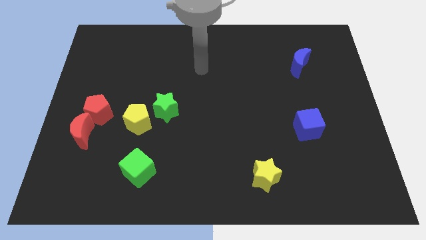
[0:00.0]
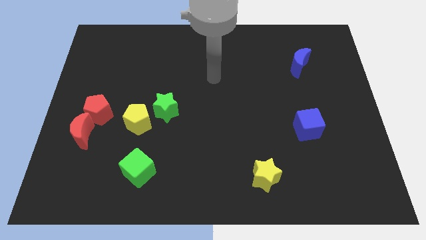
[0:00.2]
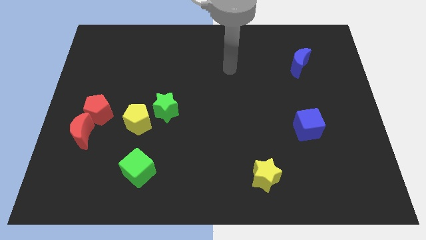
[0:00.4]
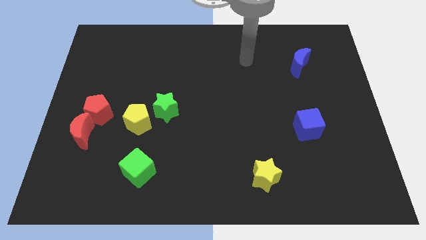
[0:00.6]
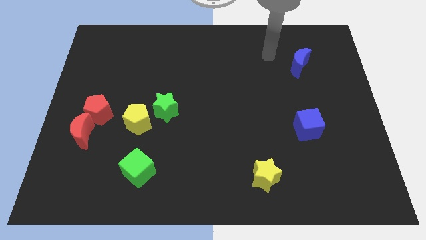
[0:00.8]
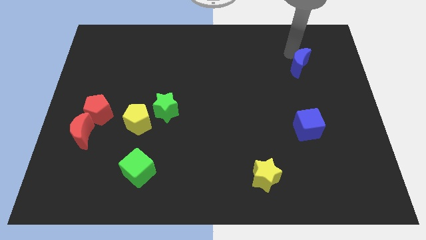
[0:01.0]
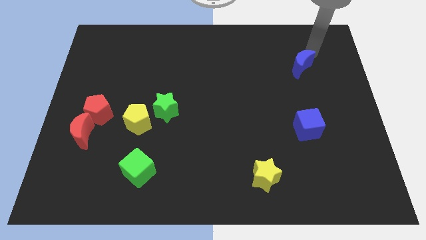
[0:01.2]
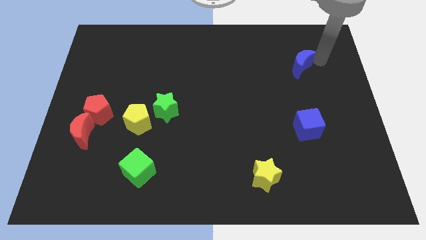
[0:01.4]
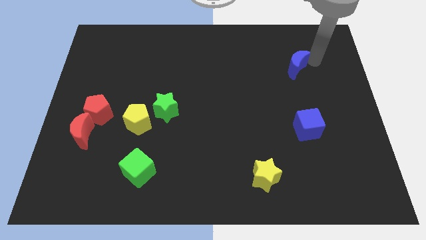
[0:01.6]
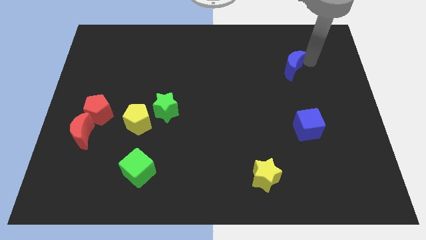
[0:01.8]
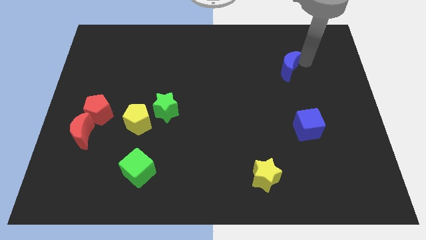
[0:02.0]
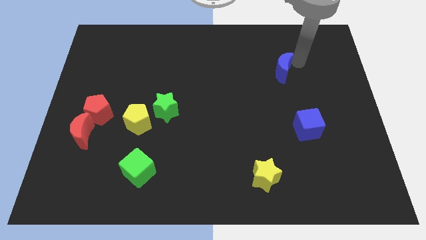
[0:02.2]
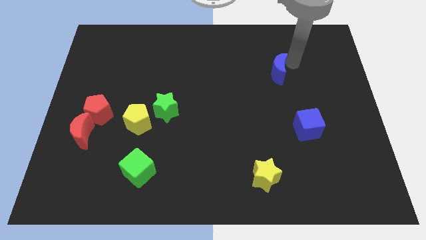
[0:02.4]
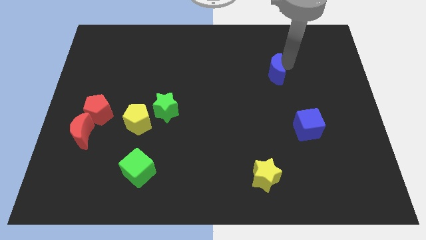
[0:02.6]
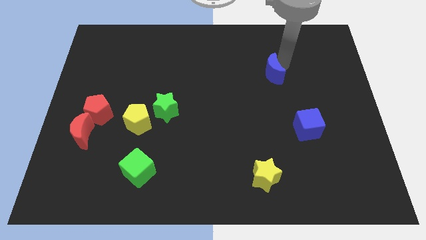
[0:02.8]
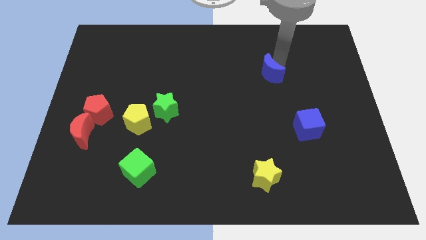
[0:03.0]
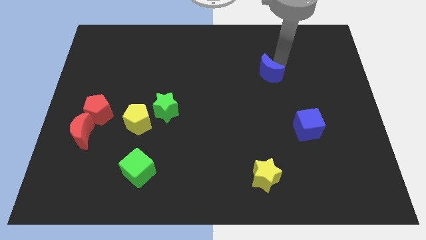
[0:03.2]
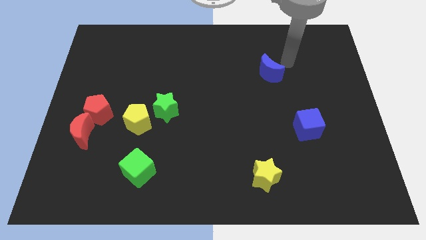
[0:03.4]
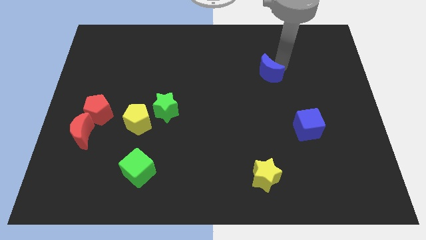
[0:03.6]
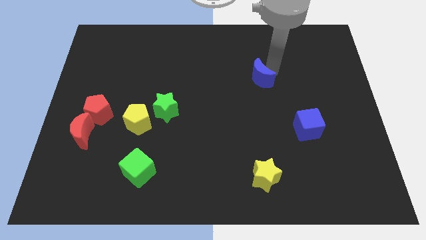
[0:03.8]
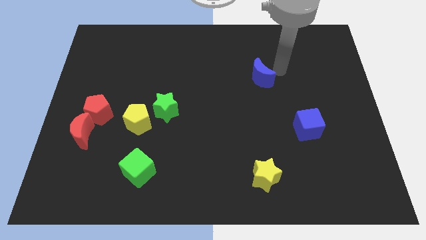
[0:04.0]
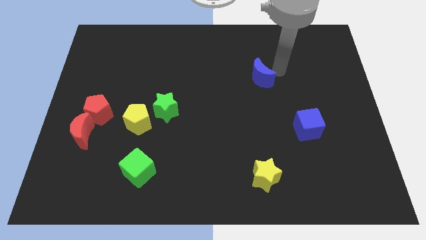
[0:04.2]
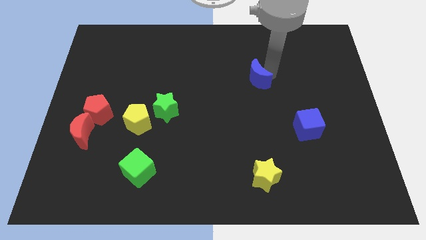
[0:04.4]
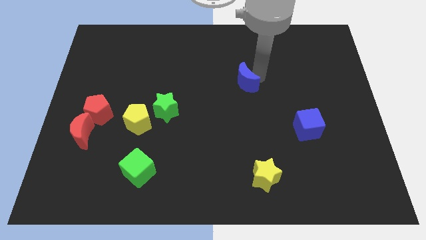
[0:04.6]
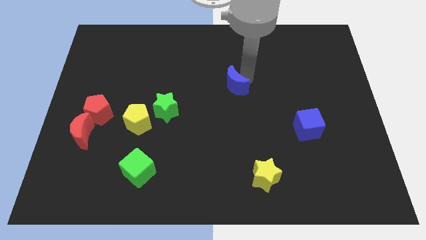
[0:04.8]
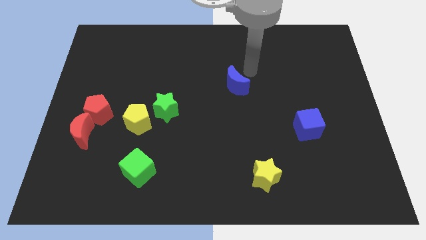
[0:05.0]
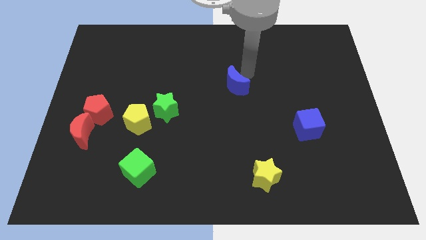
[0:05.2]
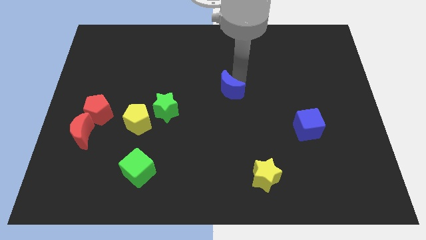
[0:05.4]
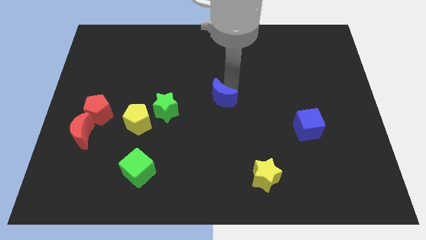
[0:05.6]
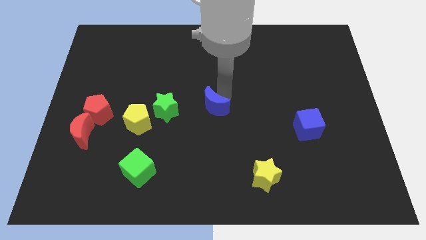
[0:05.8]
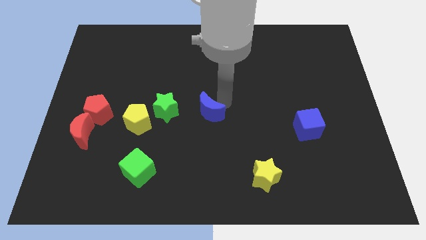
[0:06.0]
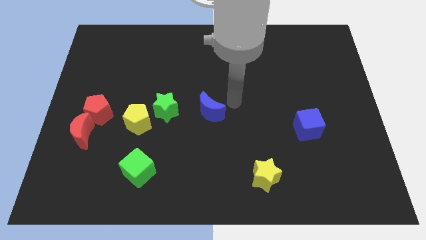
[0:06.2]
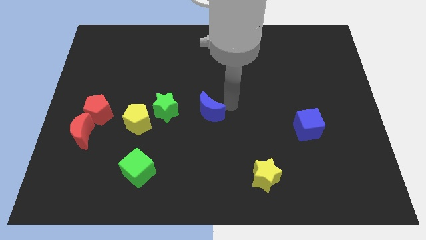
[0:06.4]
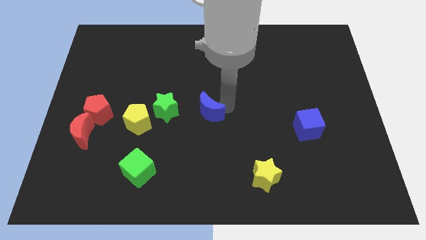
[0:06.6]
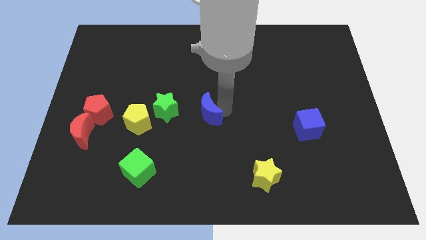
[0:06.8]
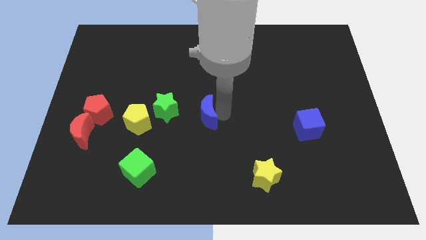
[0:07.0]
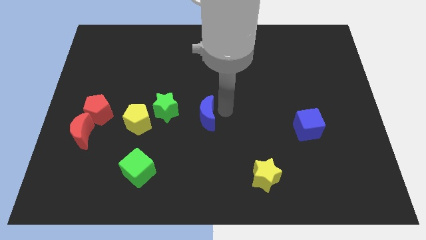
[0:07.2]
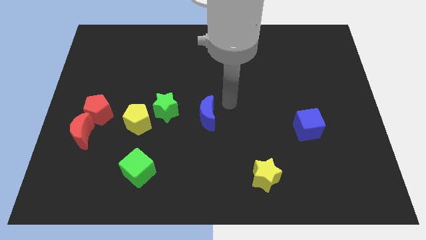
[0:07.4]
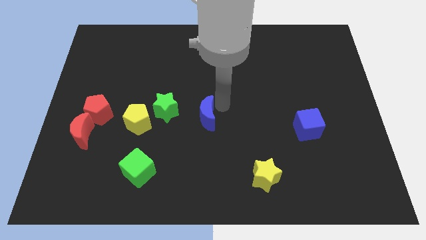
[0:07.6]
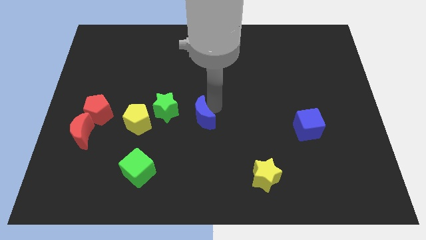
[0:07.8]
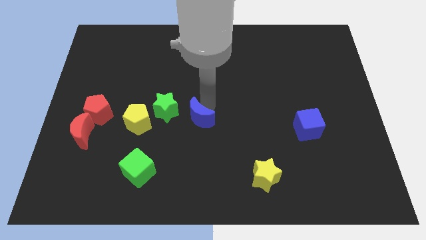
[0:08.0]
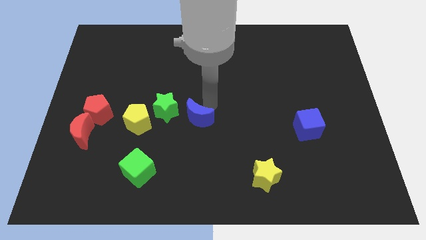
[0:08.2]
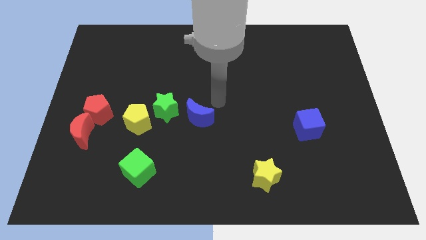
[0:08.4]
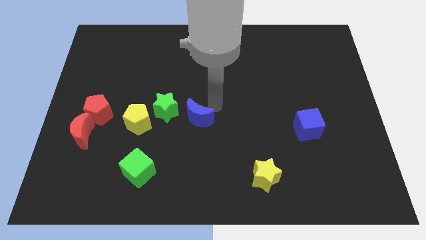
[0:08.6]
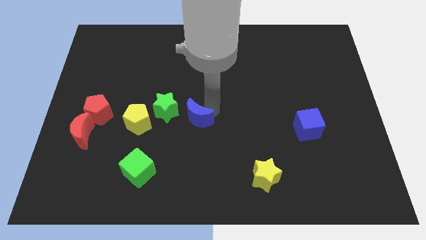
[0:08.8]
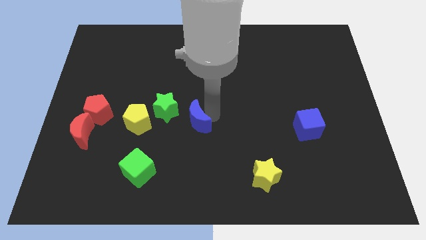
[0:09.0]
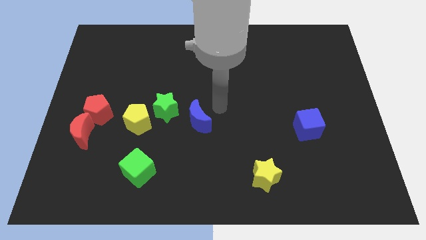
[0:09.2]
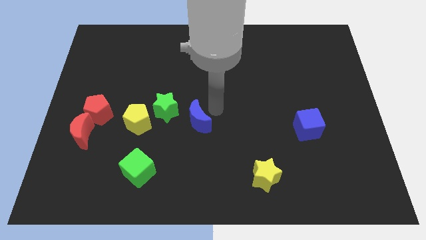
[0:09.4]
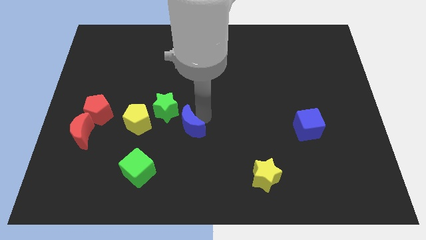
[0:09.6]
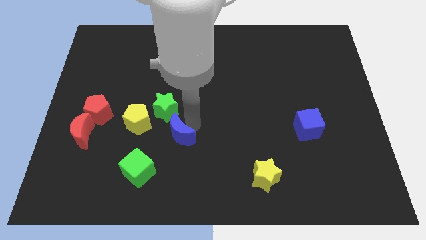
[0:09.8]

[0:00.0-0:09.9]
slide the blue moon to the bottom of the green star

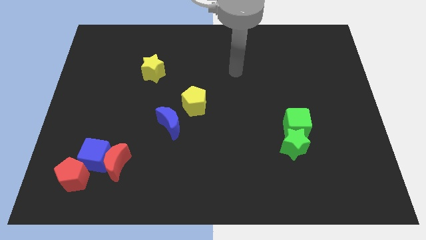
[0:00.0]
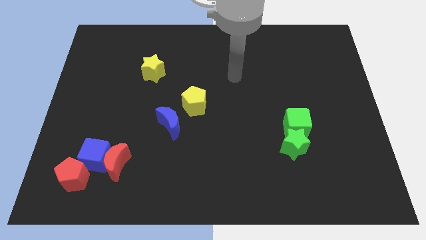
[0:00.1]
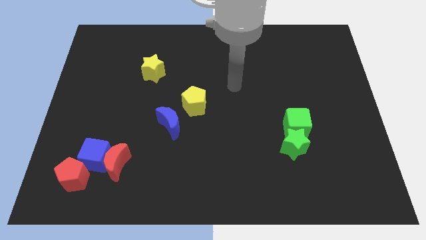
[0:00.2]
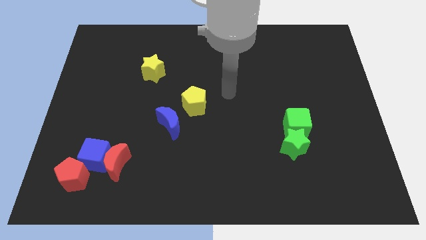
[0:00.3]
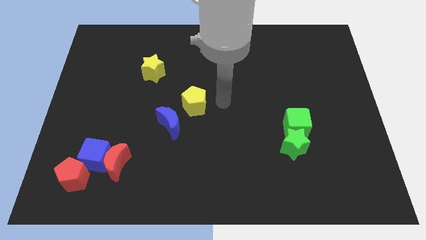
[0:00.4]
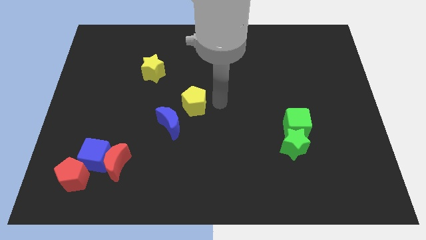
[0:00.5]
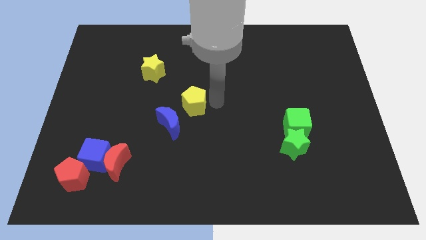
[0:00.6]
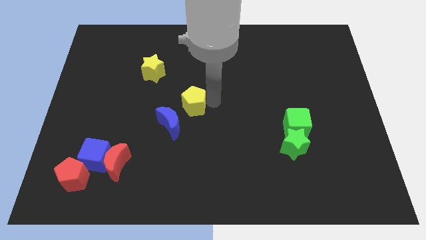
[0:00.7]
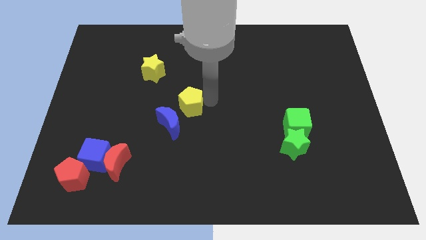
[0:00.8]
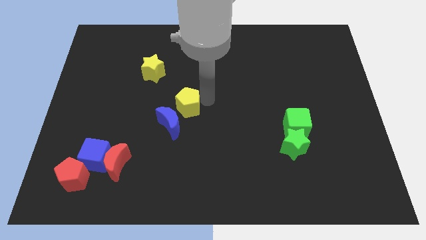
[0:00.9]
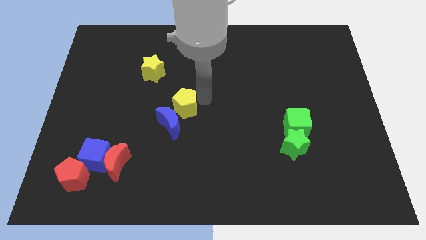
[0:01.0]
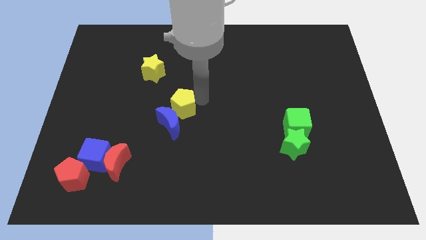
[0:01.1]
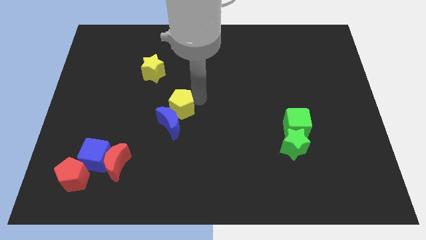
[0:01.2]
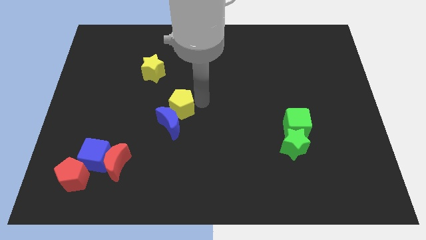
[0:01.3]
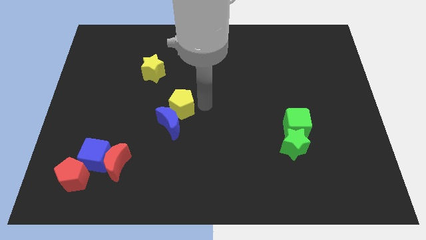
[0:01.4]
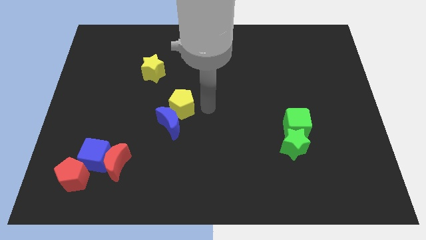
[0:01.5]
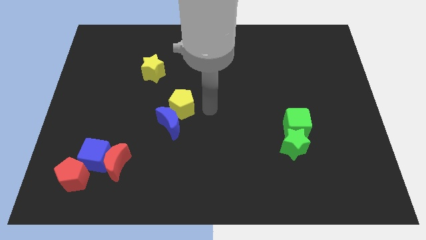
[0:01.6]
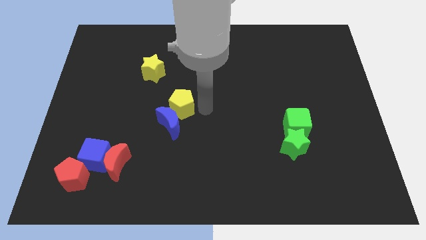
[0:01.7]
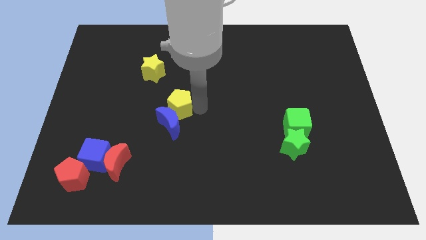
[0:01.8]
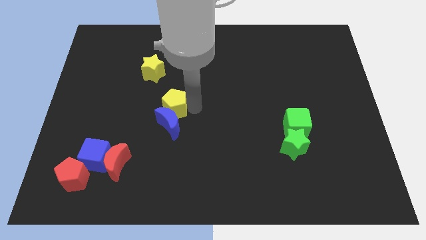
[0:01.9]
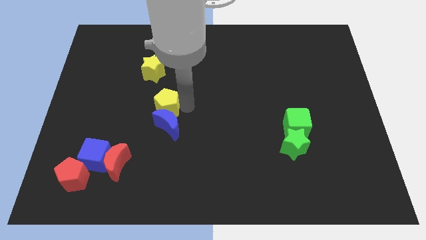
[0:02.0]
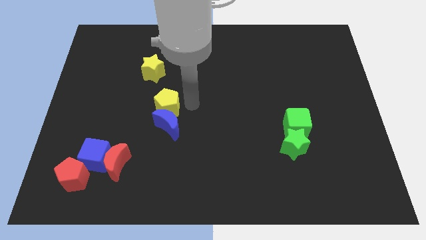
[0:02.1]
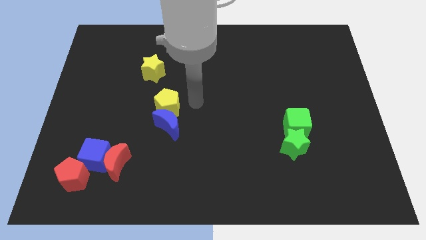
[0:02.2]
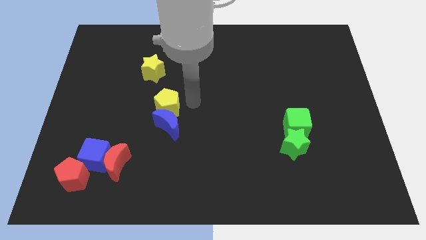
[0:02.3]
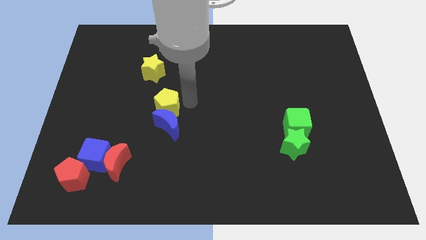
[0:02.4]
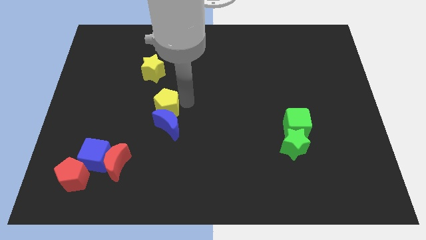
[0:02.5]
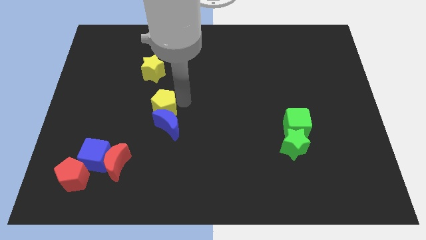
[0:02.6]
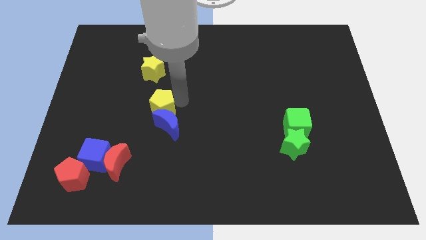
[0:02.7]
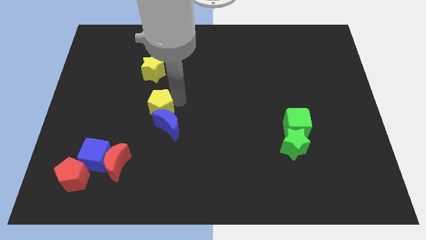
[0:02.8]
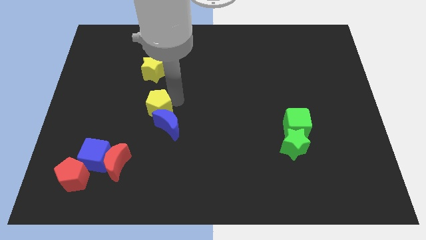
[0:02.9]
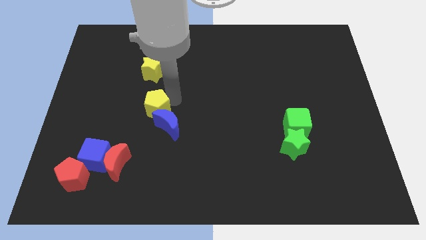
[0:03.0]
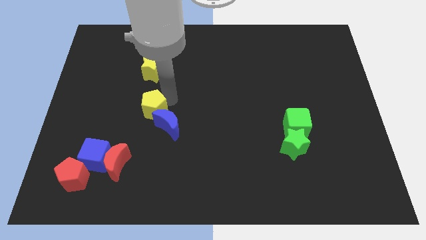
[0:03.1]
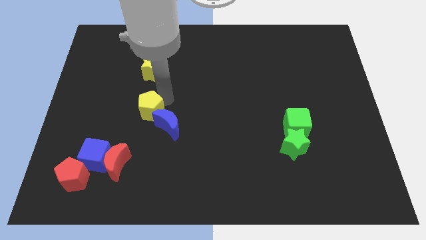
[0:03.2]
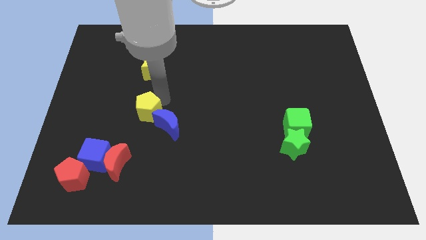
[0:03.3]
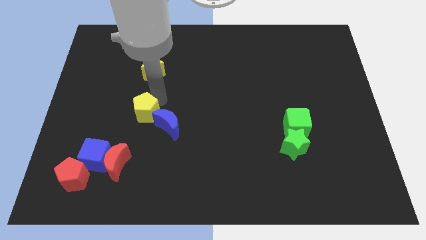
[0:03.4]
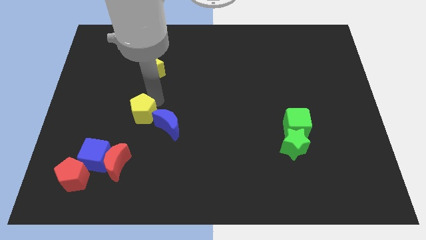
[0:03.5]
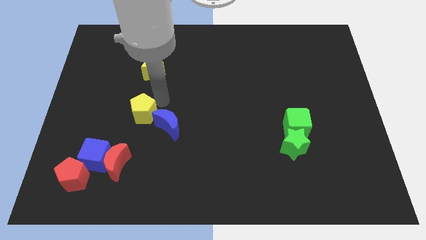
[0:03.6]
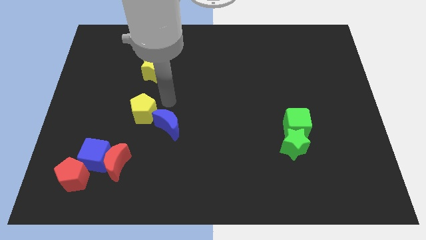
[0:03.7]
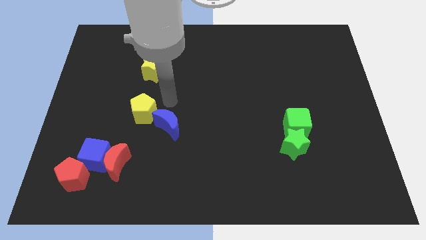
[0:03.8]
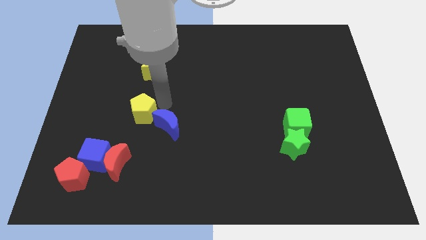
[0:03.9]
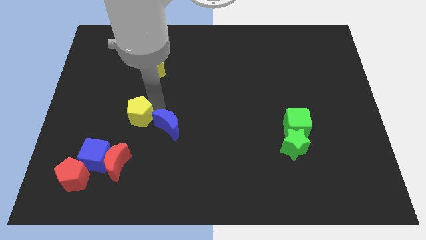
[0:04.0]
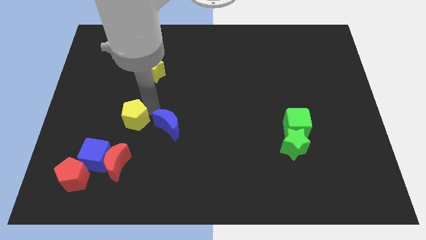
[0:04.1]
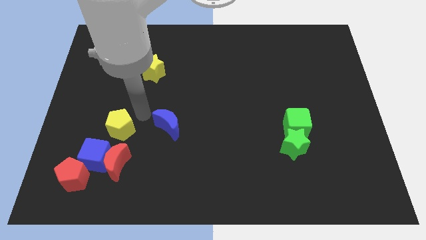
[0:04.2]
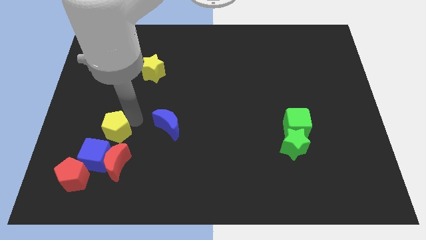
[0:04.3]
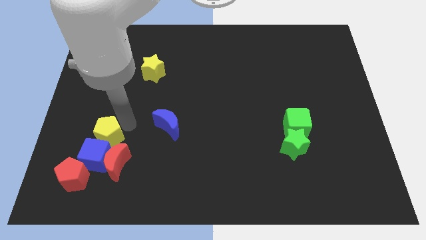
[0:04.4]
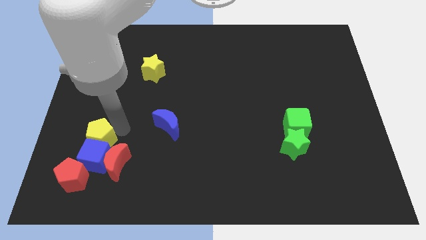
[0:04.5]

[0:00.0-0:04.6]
move the yellow pentagon above the red pentagon
